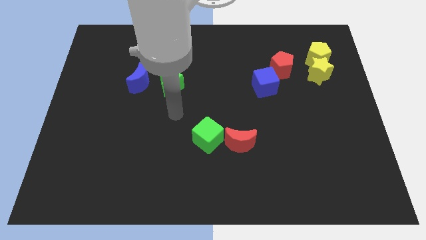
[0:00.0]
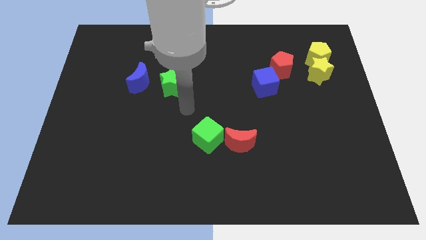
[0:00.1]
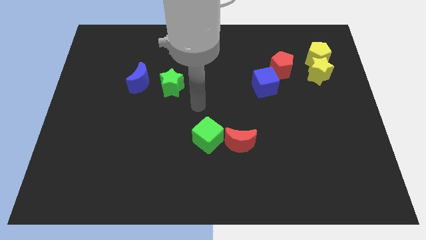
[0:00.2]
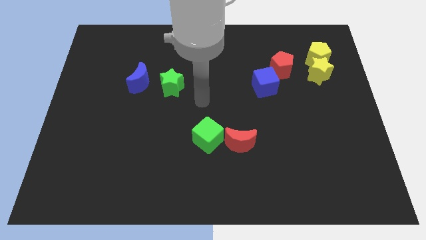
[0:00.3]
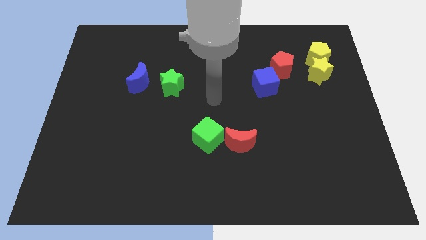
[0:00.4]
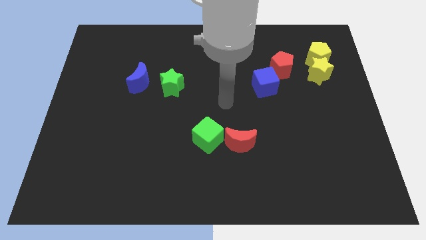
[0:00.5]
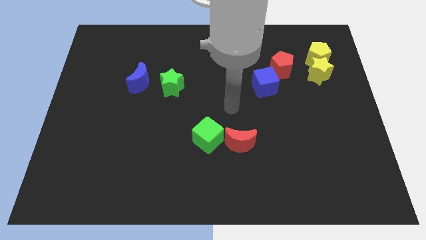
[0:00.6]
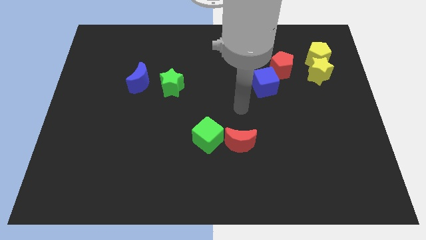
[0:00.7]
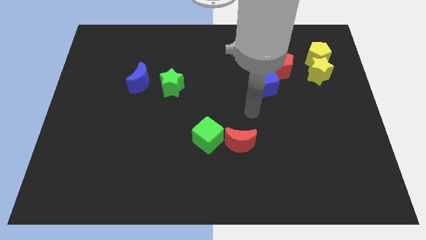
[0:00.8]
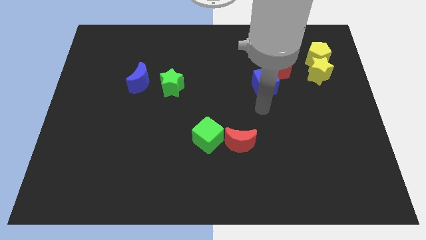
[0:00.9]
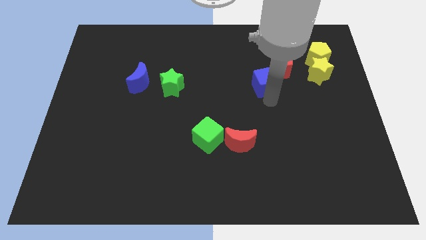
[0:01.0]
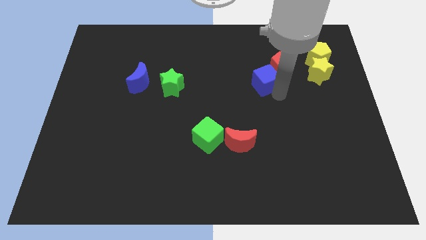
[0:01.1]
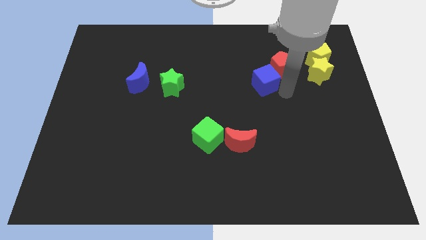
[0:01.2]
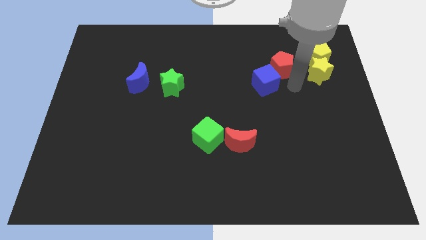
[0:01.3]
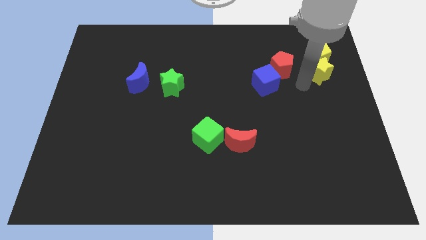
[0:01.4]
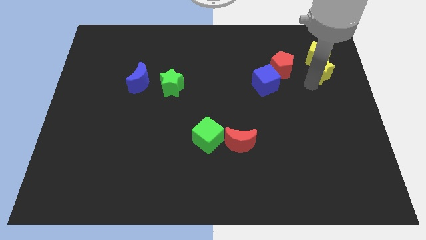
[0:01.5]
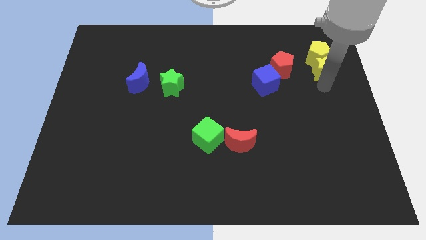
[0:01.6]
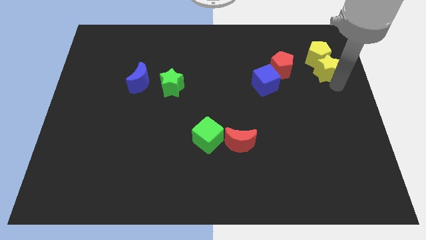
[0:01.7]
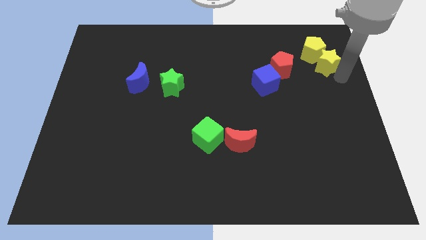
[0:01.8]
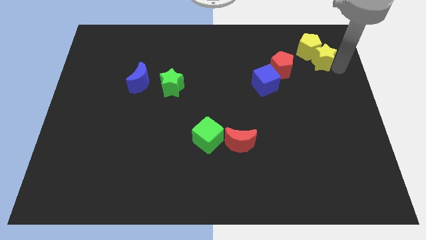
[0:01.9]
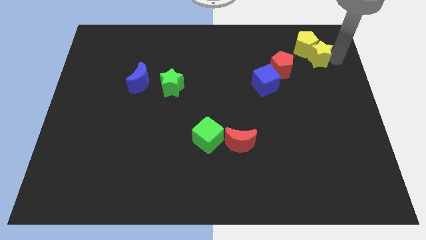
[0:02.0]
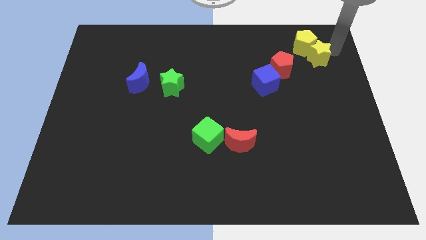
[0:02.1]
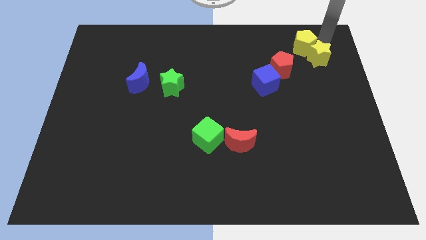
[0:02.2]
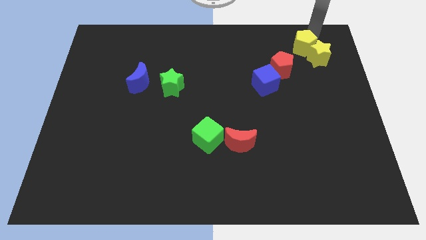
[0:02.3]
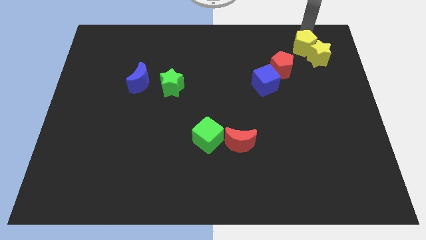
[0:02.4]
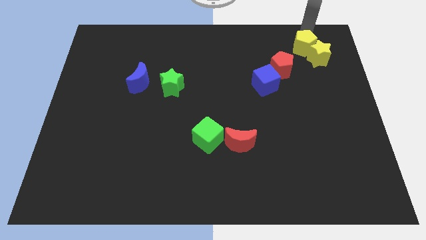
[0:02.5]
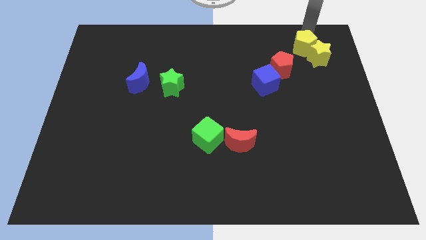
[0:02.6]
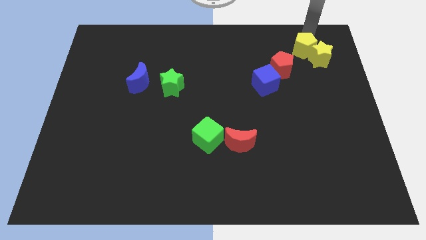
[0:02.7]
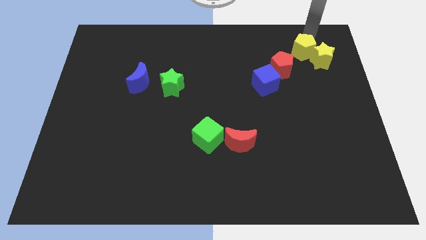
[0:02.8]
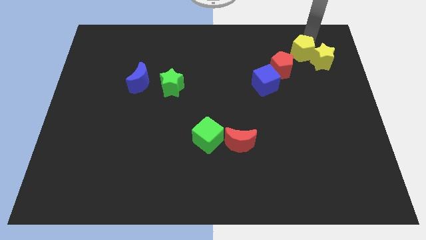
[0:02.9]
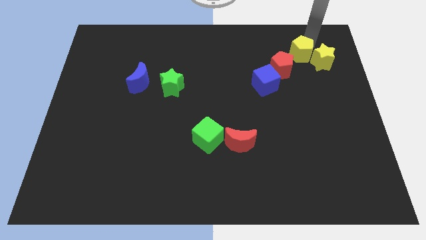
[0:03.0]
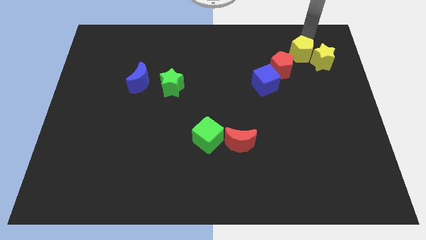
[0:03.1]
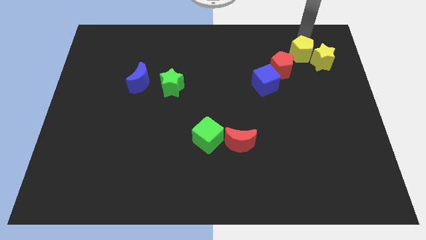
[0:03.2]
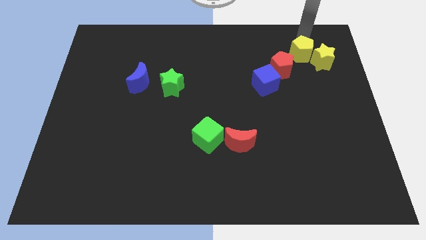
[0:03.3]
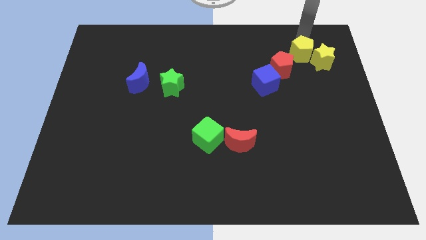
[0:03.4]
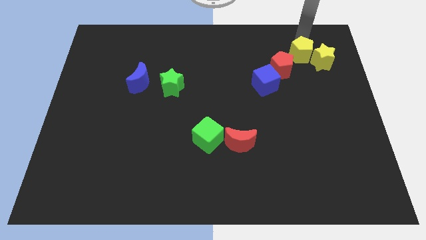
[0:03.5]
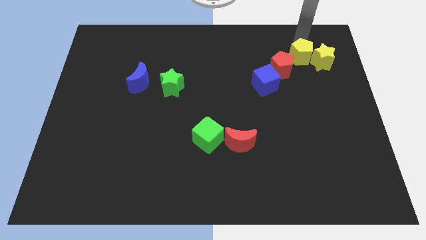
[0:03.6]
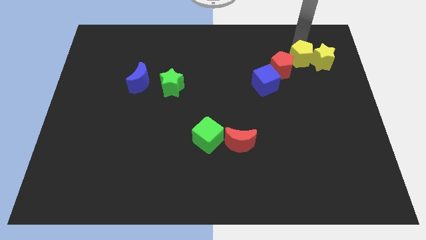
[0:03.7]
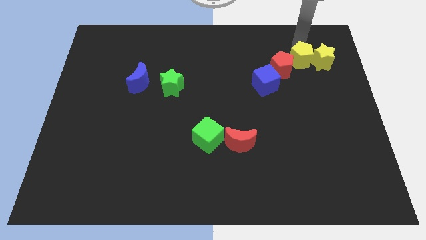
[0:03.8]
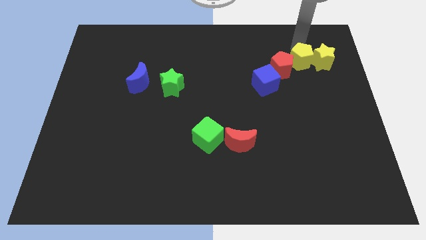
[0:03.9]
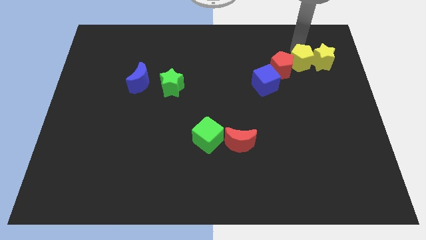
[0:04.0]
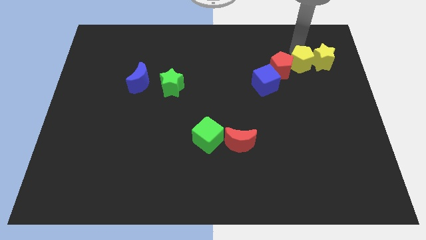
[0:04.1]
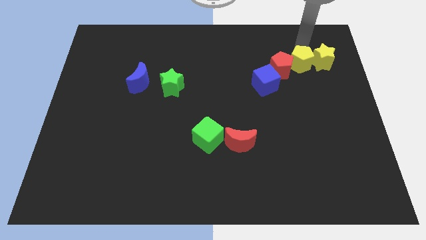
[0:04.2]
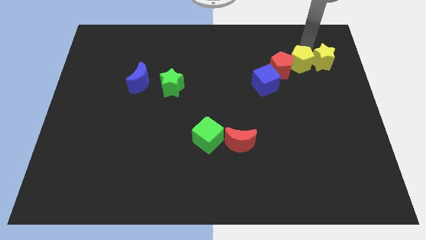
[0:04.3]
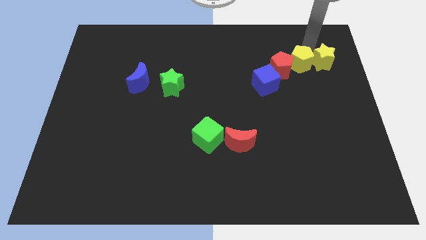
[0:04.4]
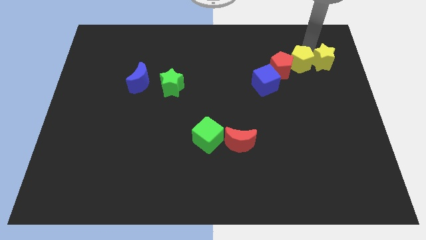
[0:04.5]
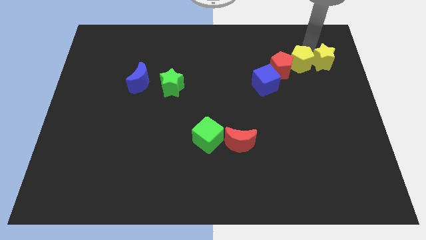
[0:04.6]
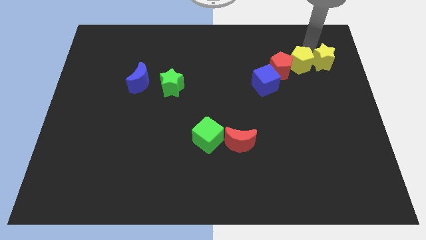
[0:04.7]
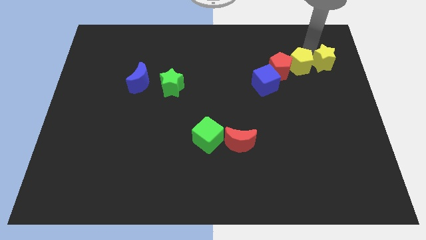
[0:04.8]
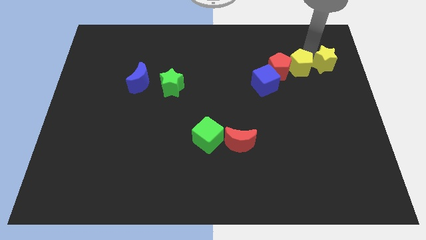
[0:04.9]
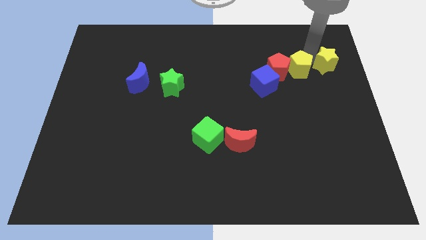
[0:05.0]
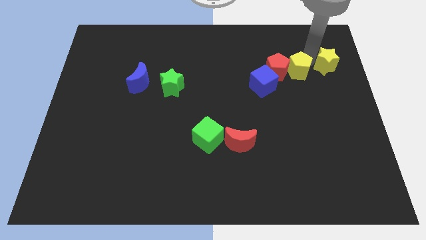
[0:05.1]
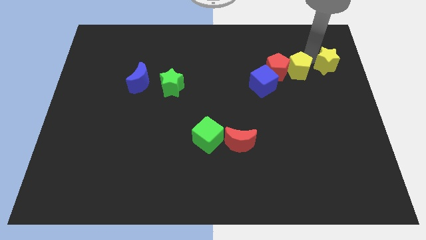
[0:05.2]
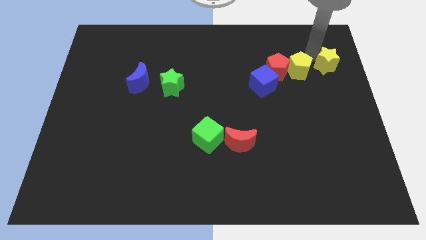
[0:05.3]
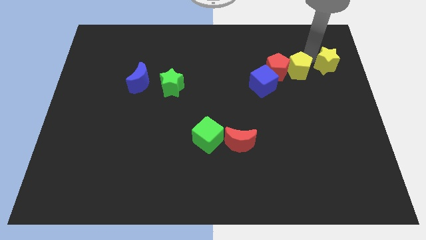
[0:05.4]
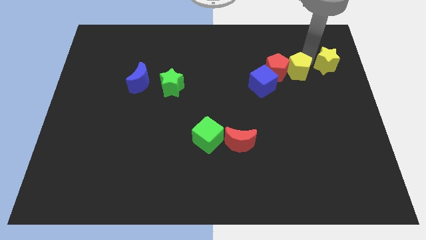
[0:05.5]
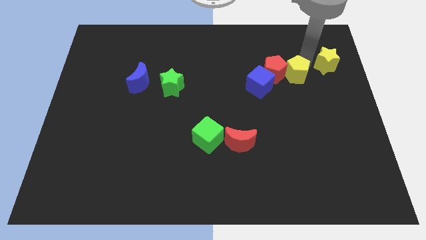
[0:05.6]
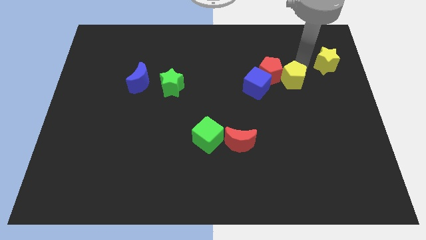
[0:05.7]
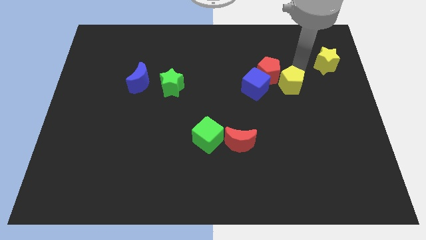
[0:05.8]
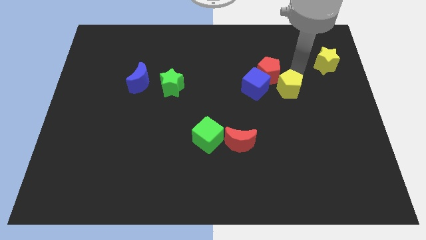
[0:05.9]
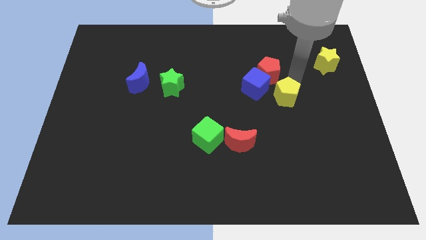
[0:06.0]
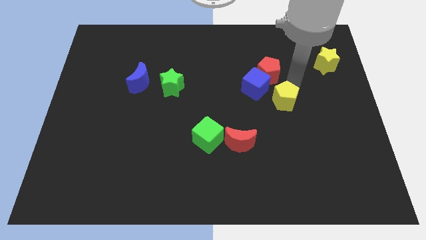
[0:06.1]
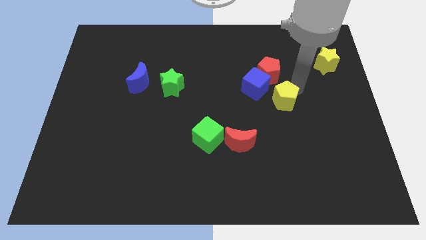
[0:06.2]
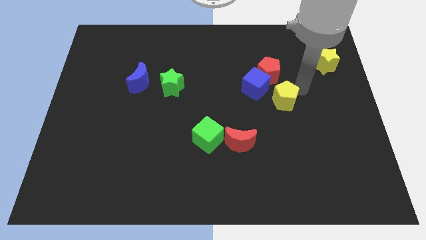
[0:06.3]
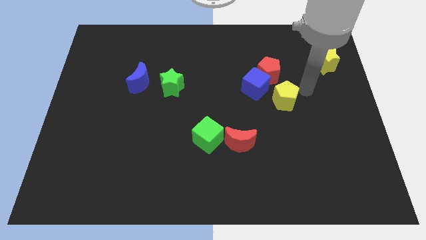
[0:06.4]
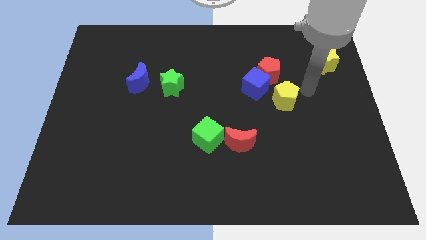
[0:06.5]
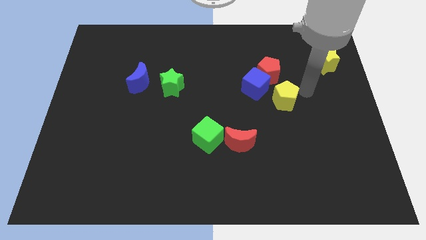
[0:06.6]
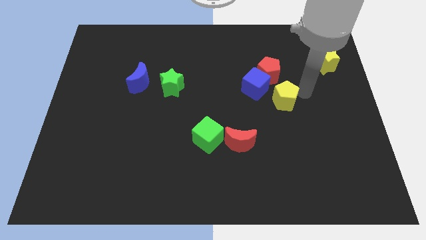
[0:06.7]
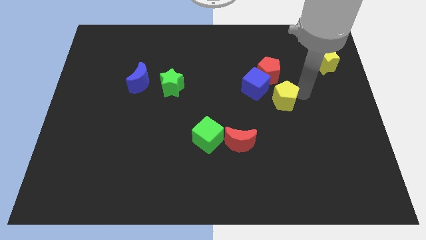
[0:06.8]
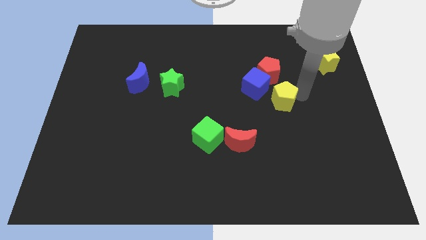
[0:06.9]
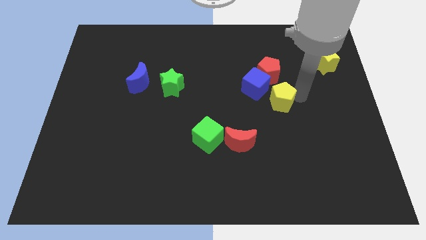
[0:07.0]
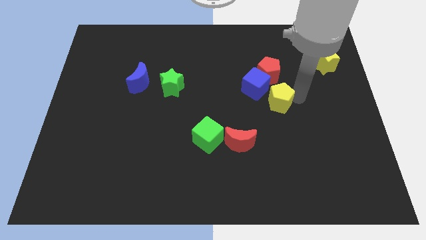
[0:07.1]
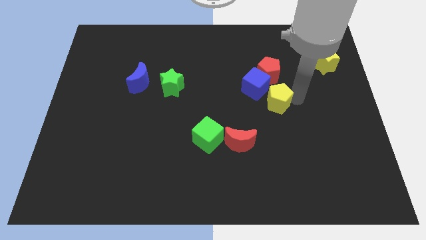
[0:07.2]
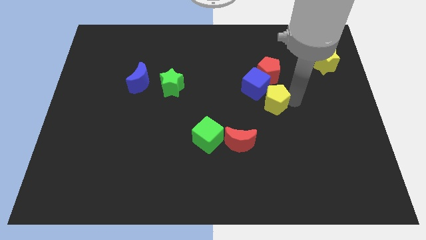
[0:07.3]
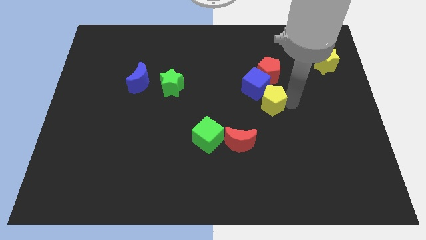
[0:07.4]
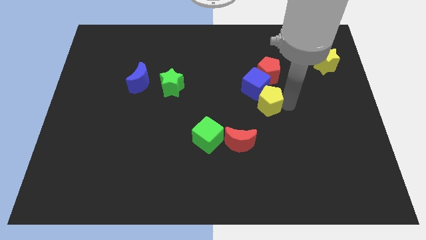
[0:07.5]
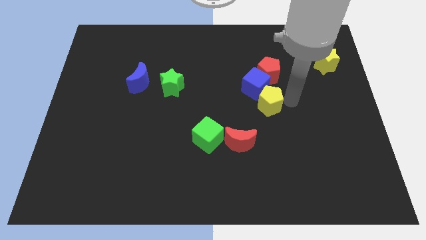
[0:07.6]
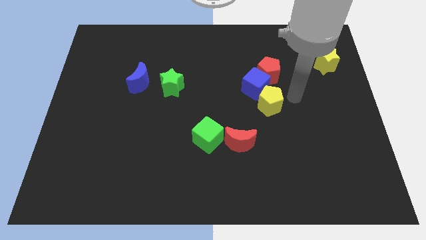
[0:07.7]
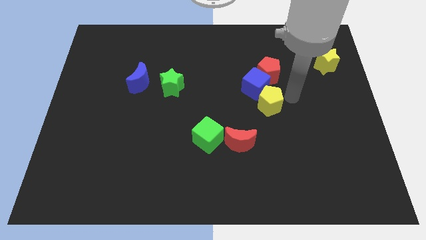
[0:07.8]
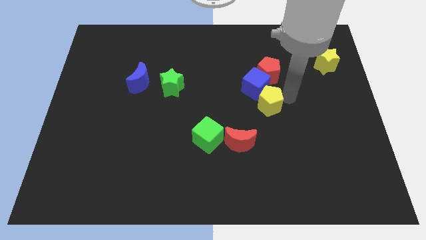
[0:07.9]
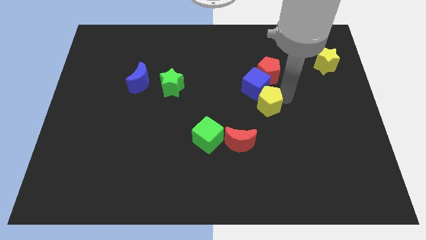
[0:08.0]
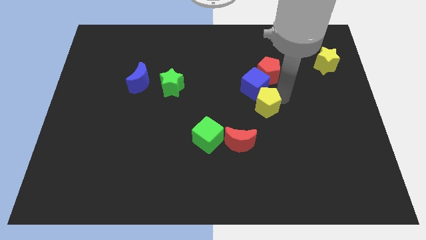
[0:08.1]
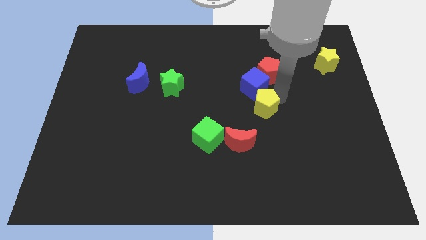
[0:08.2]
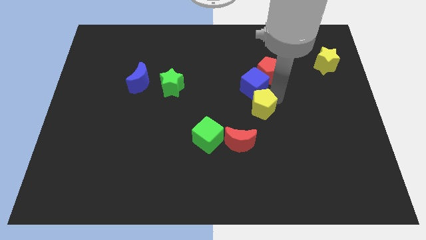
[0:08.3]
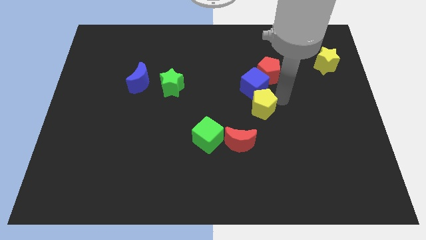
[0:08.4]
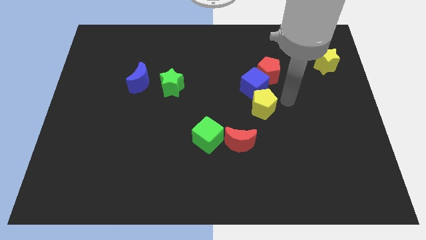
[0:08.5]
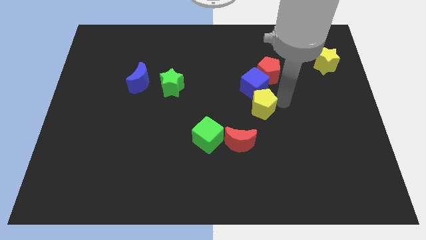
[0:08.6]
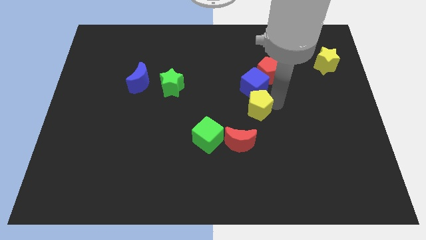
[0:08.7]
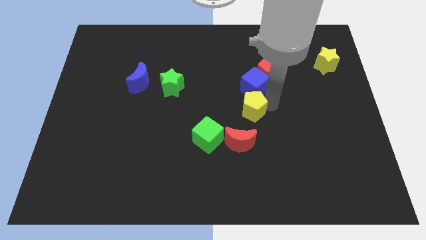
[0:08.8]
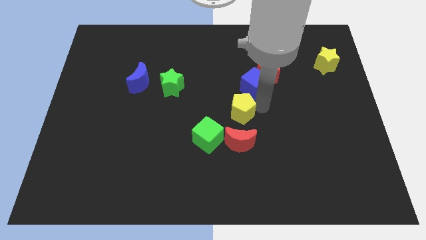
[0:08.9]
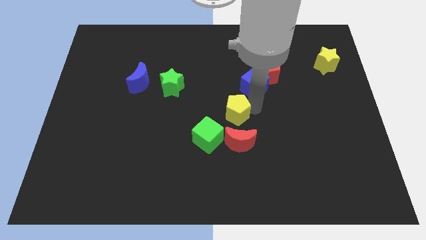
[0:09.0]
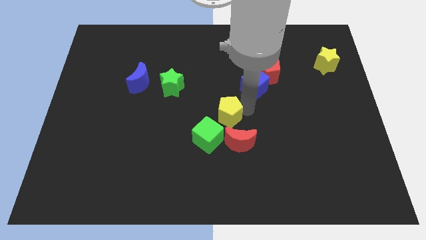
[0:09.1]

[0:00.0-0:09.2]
push the yellow pentagon to the top left side of the red moon
